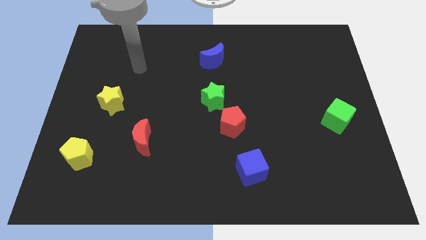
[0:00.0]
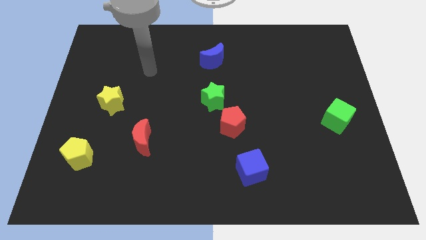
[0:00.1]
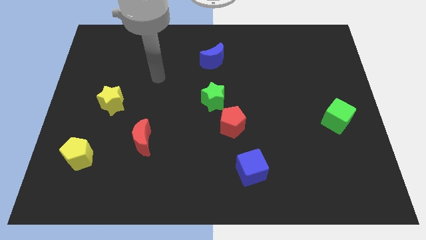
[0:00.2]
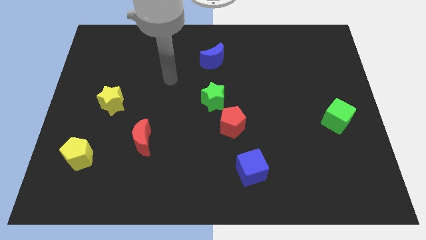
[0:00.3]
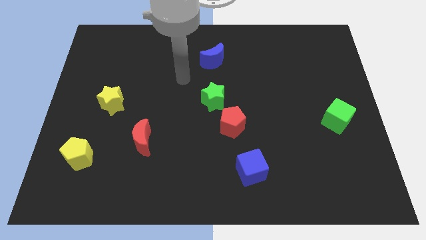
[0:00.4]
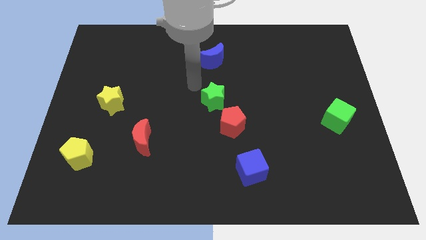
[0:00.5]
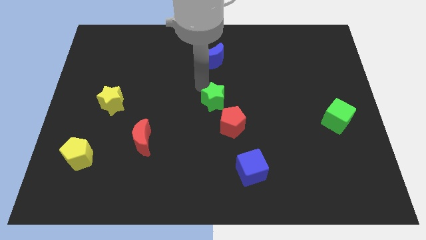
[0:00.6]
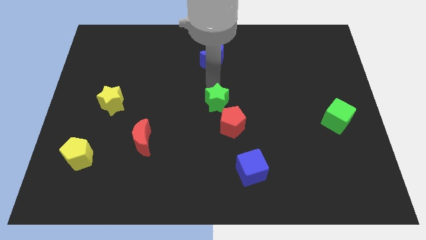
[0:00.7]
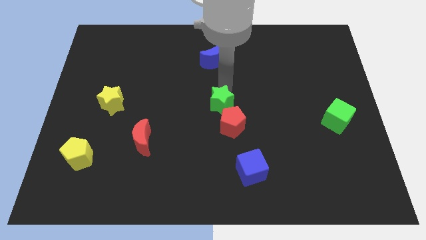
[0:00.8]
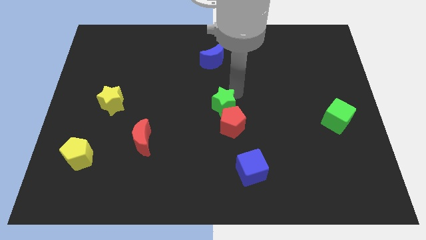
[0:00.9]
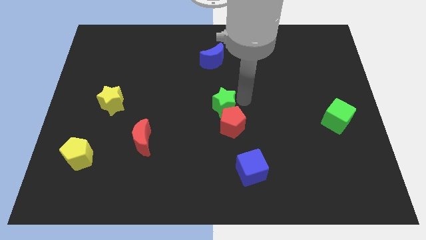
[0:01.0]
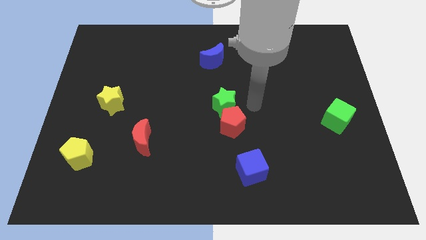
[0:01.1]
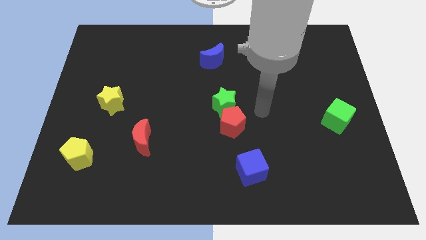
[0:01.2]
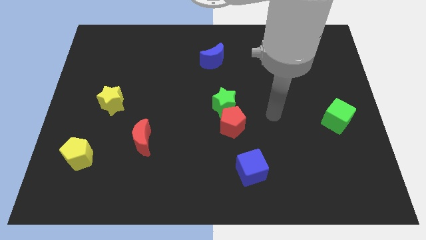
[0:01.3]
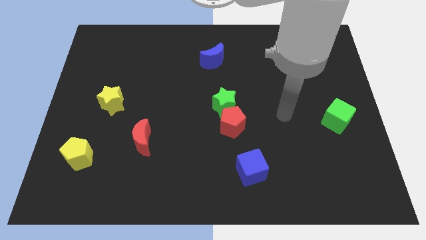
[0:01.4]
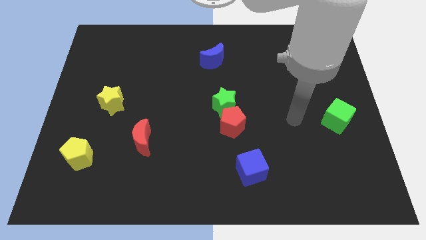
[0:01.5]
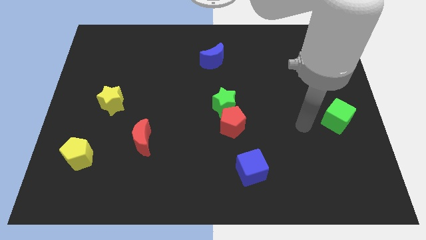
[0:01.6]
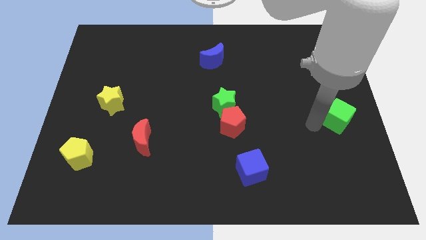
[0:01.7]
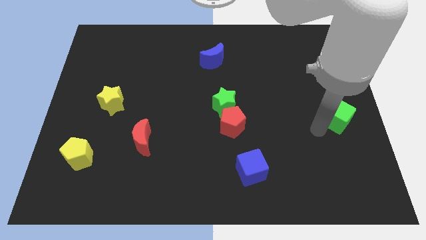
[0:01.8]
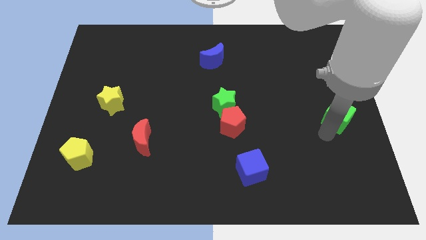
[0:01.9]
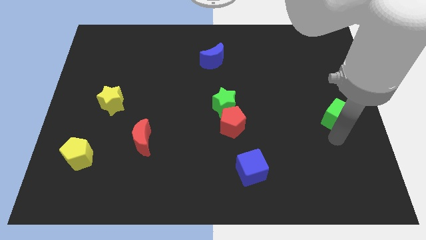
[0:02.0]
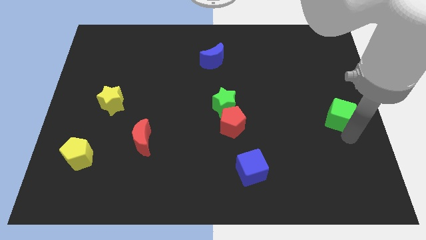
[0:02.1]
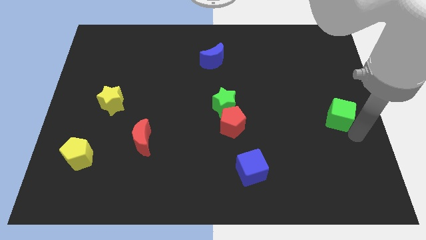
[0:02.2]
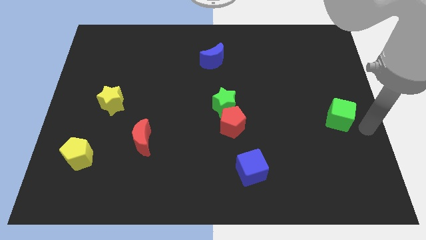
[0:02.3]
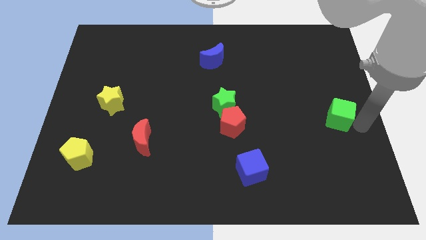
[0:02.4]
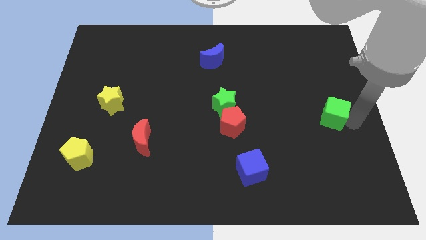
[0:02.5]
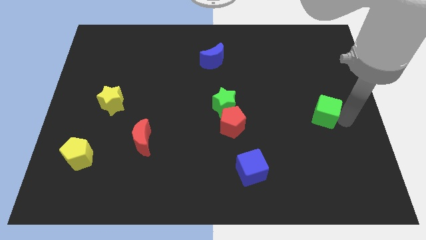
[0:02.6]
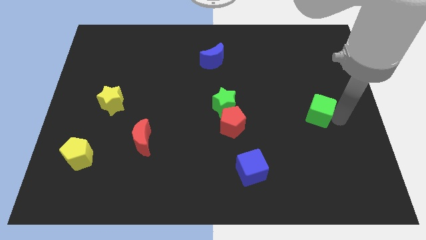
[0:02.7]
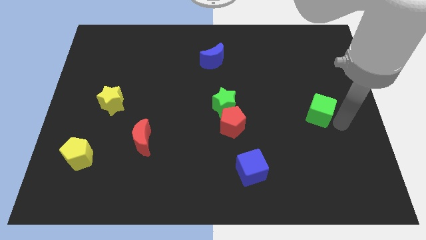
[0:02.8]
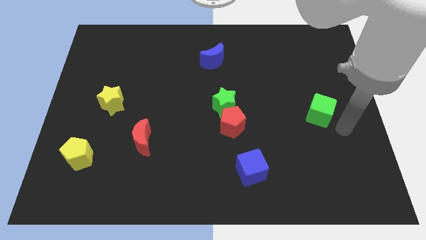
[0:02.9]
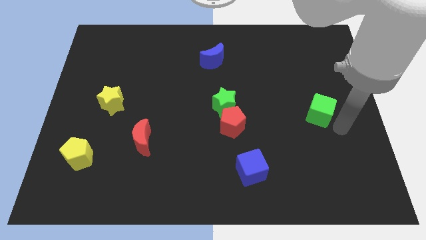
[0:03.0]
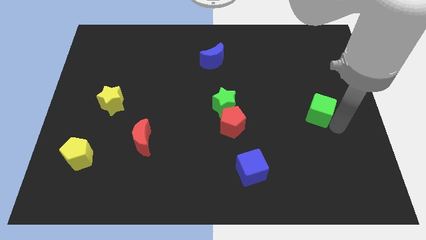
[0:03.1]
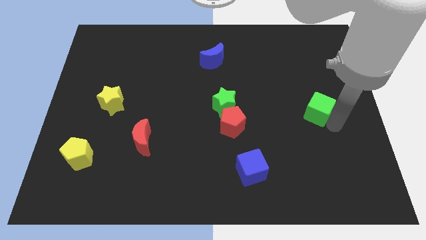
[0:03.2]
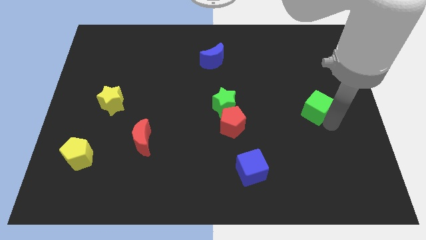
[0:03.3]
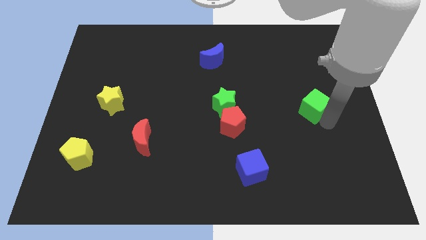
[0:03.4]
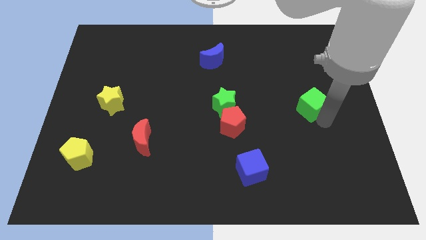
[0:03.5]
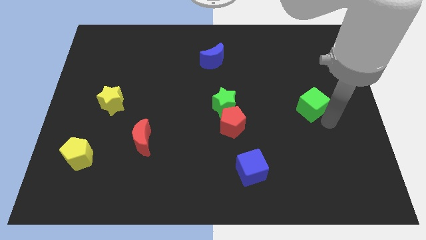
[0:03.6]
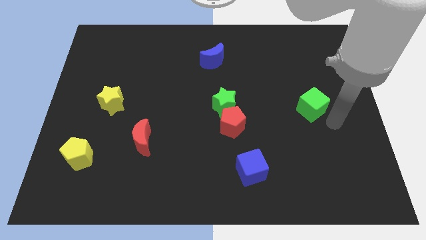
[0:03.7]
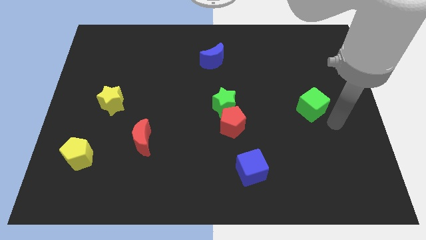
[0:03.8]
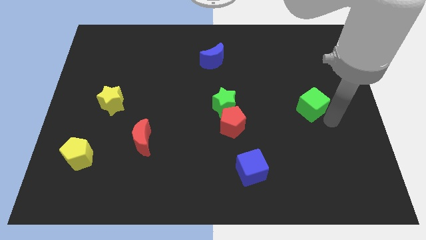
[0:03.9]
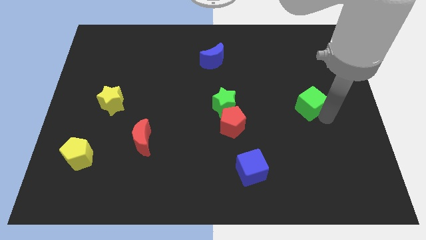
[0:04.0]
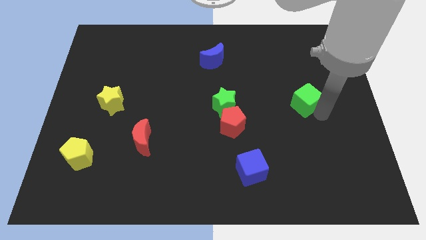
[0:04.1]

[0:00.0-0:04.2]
move the green cube somewhat upwards and left diagonally

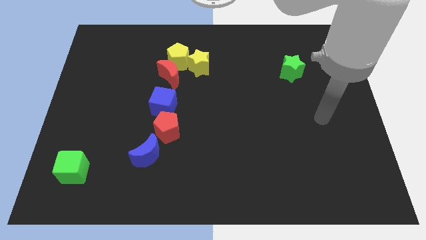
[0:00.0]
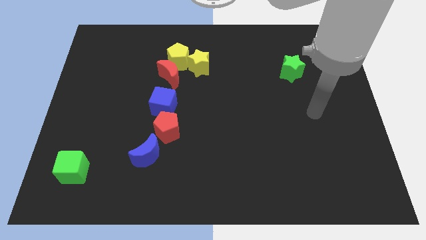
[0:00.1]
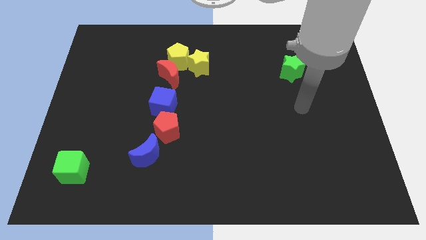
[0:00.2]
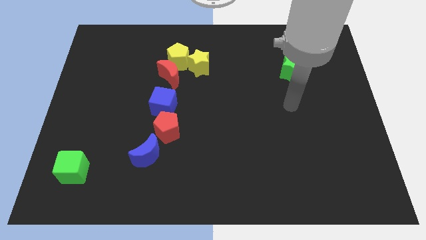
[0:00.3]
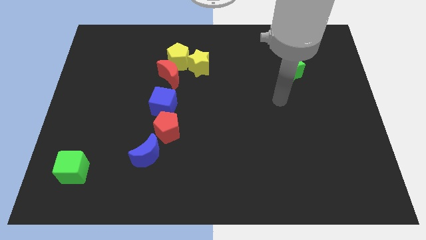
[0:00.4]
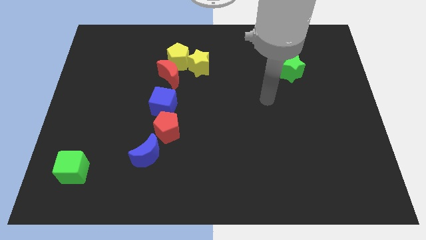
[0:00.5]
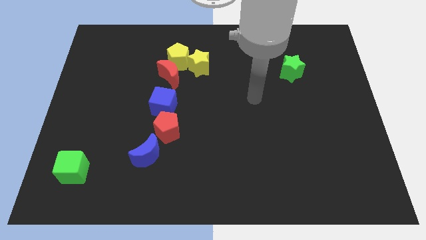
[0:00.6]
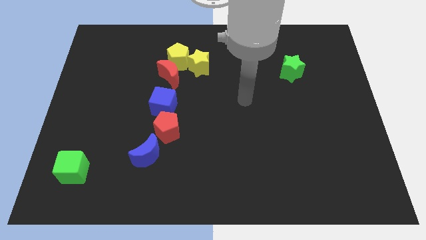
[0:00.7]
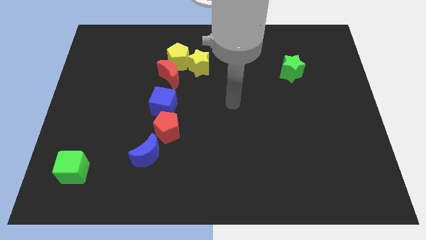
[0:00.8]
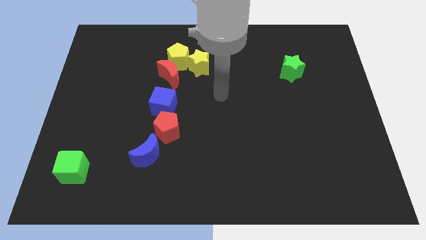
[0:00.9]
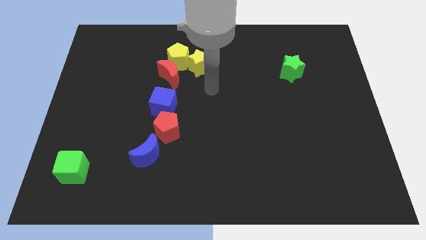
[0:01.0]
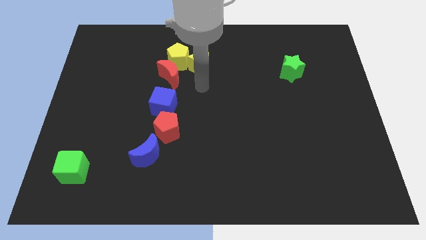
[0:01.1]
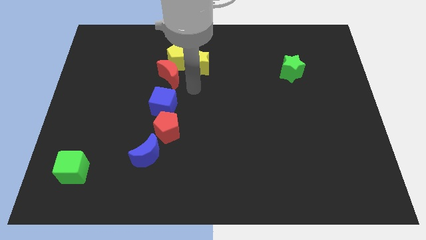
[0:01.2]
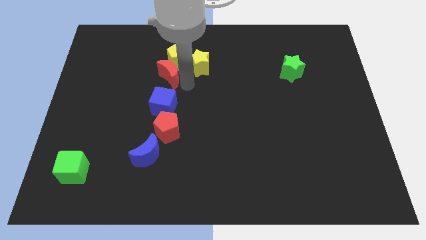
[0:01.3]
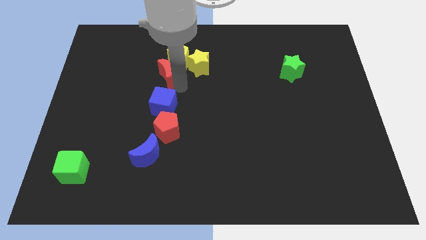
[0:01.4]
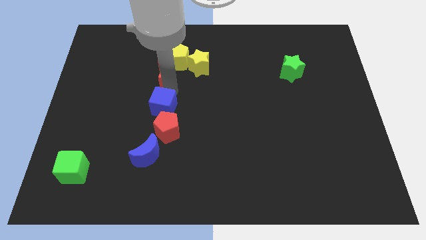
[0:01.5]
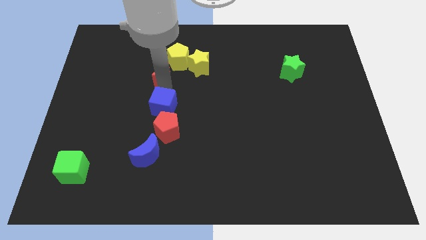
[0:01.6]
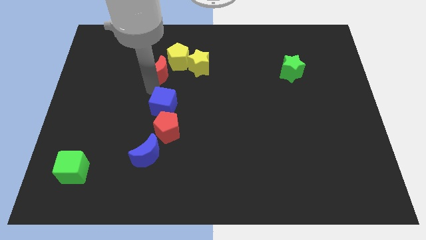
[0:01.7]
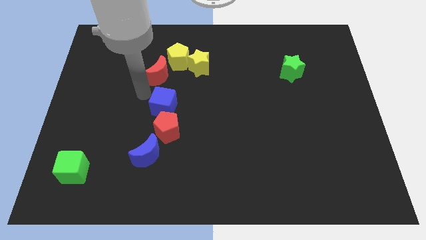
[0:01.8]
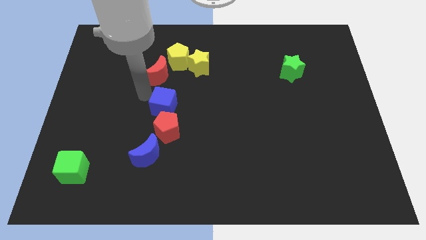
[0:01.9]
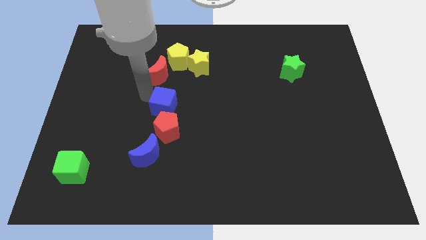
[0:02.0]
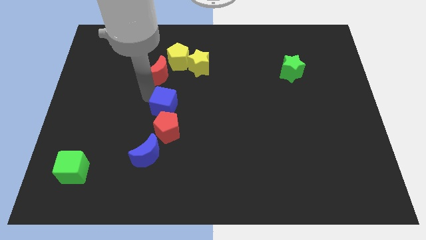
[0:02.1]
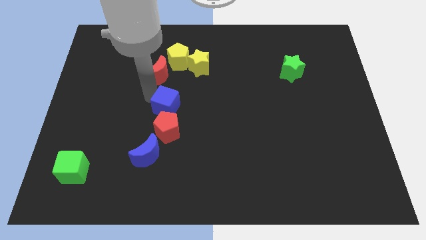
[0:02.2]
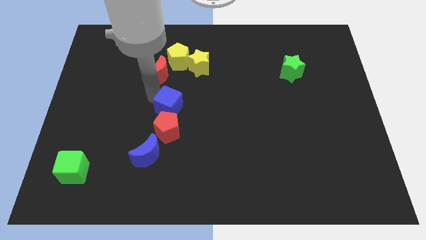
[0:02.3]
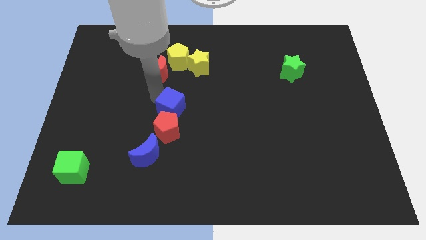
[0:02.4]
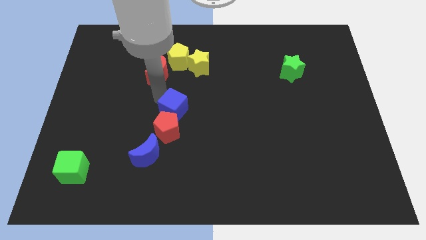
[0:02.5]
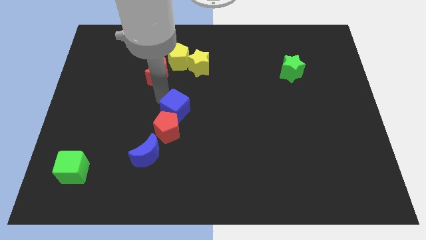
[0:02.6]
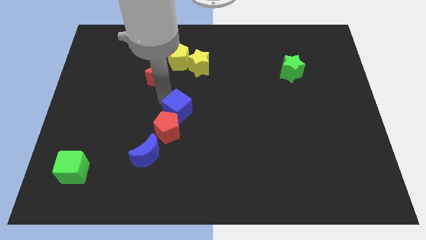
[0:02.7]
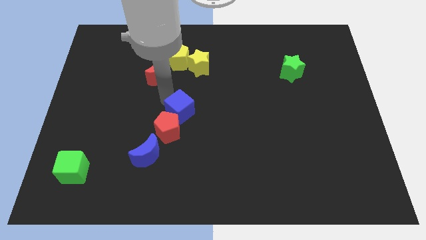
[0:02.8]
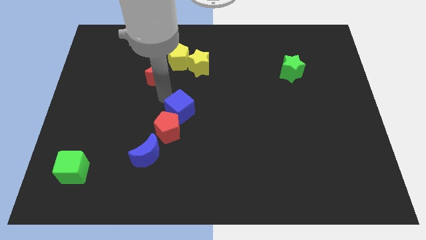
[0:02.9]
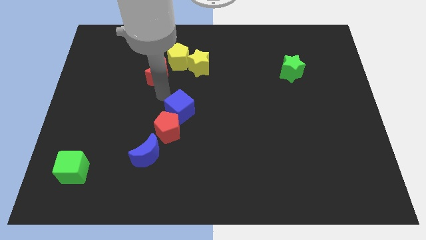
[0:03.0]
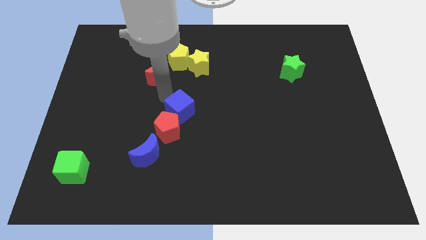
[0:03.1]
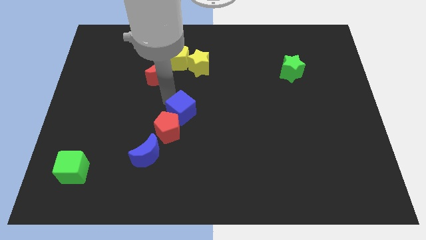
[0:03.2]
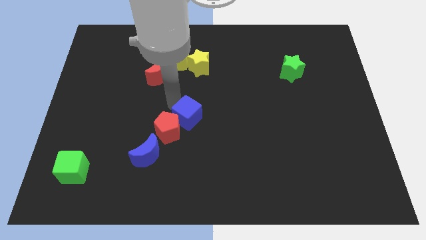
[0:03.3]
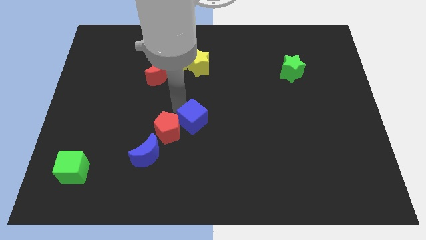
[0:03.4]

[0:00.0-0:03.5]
push the blue cube diagonally down and right somewhat
